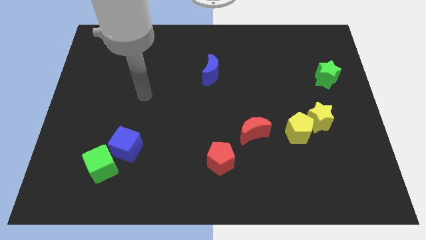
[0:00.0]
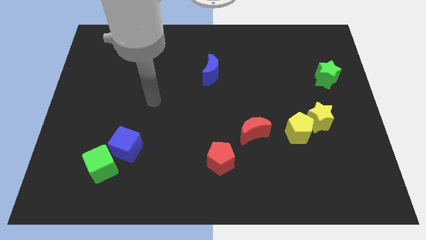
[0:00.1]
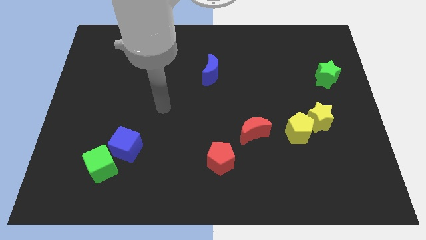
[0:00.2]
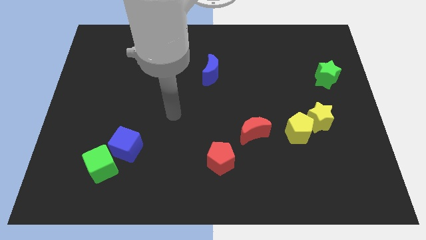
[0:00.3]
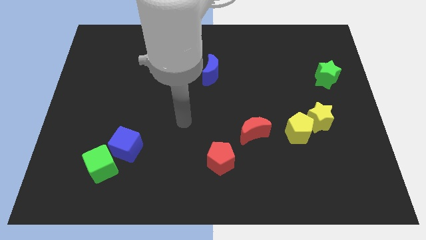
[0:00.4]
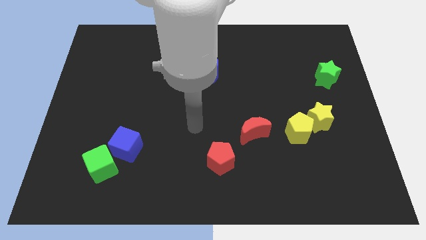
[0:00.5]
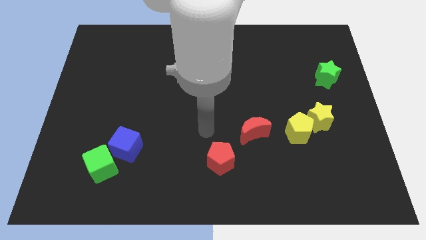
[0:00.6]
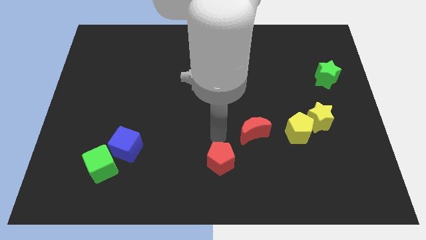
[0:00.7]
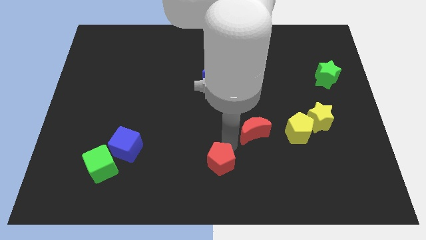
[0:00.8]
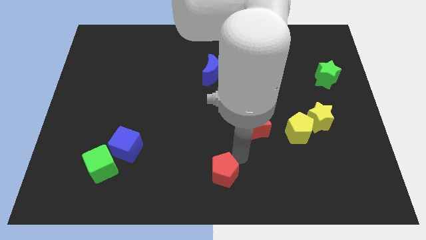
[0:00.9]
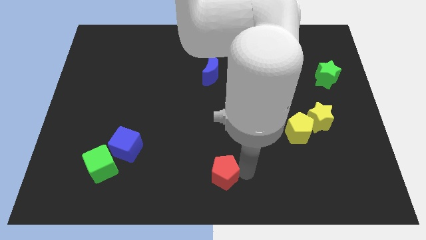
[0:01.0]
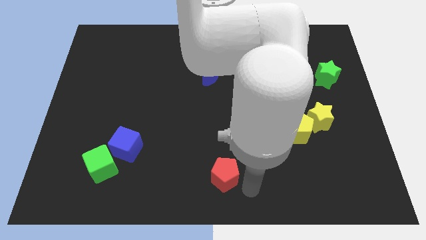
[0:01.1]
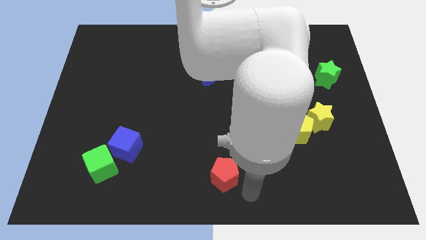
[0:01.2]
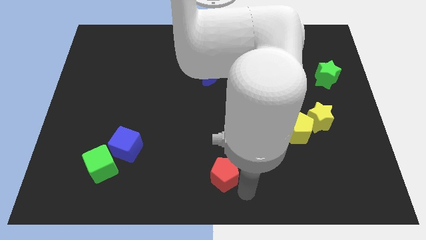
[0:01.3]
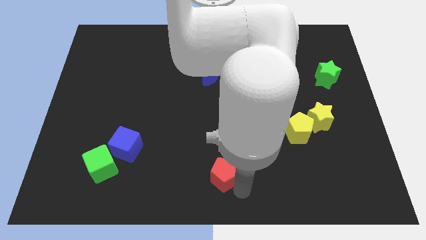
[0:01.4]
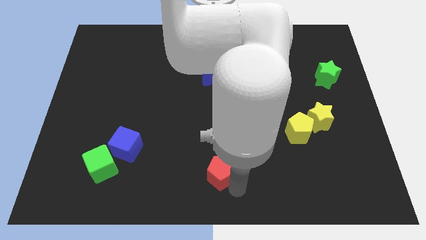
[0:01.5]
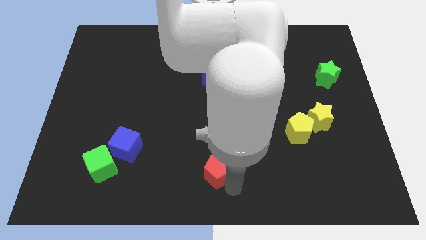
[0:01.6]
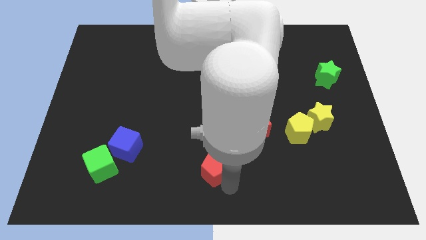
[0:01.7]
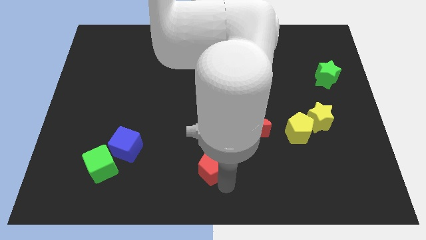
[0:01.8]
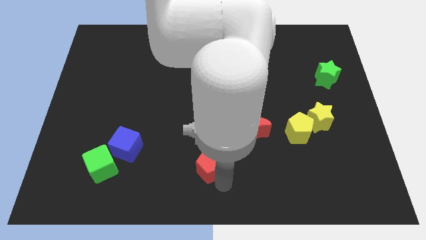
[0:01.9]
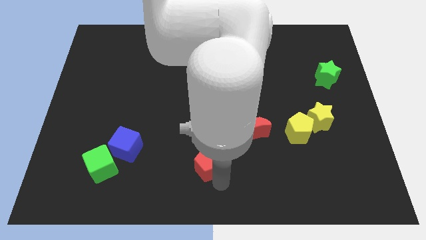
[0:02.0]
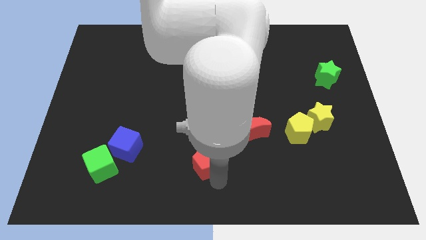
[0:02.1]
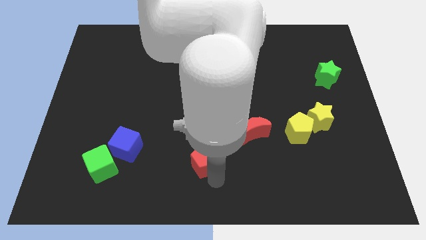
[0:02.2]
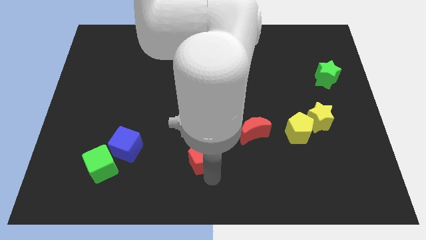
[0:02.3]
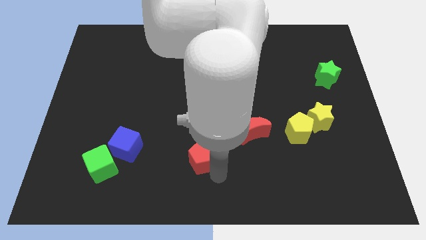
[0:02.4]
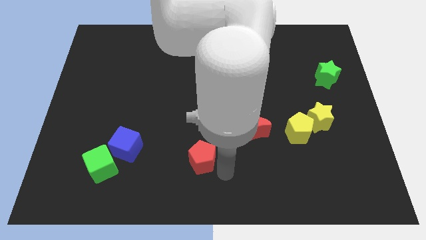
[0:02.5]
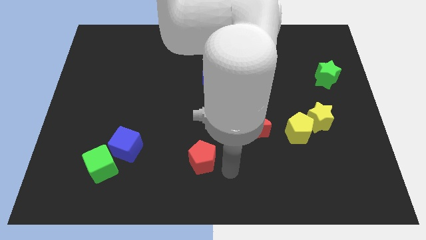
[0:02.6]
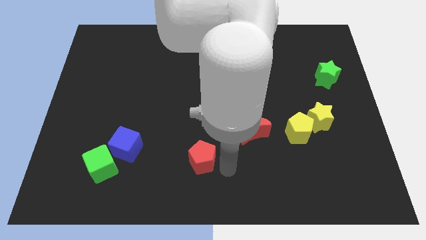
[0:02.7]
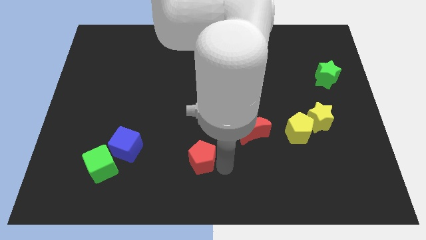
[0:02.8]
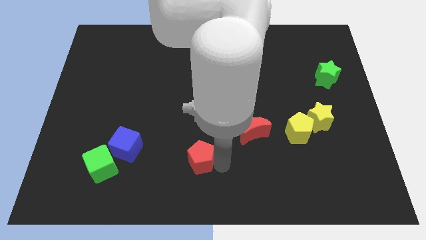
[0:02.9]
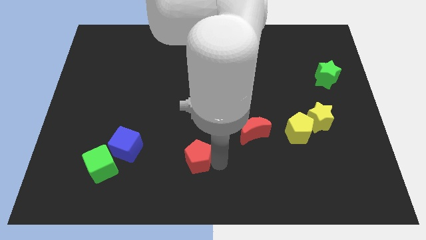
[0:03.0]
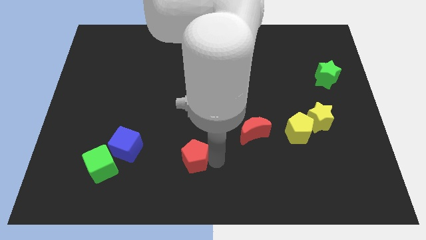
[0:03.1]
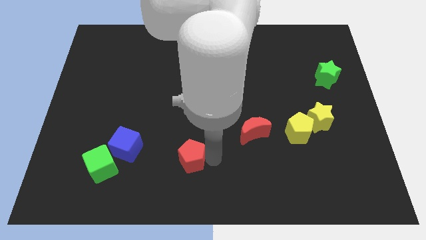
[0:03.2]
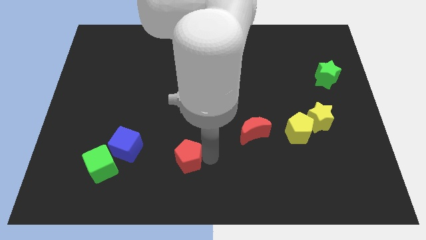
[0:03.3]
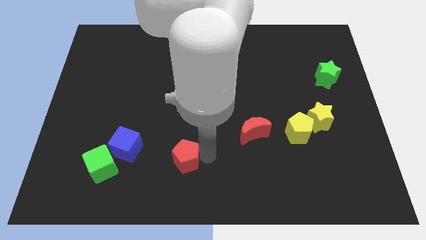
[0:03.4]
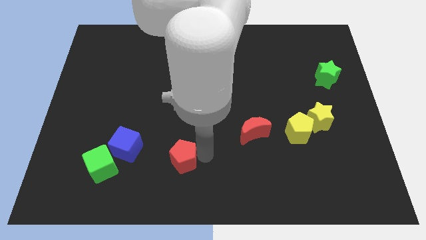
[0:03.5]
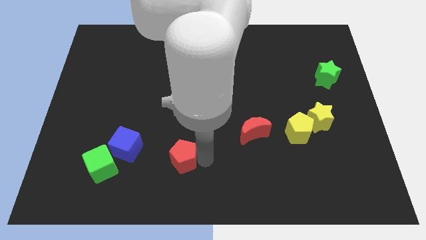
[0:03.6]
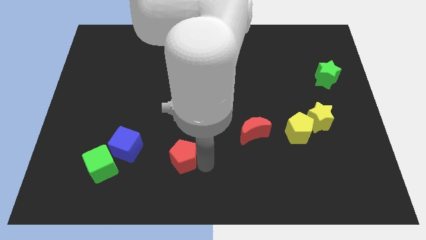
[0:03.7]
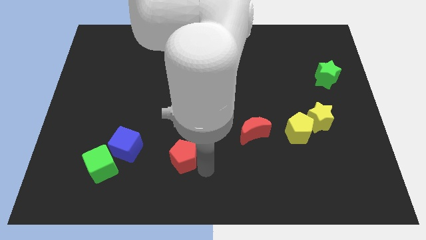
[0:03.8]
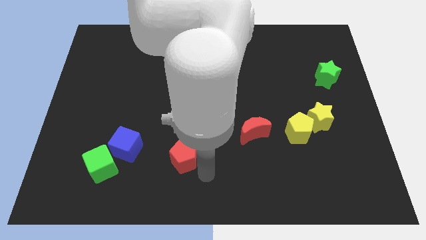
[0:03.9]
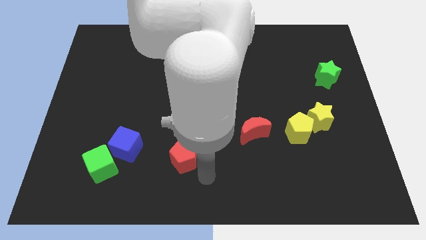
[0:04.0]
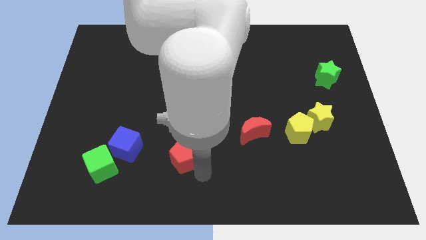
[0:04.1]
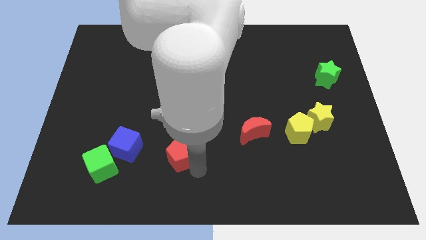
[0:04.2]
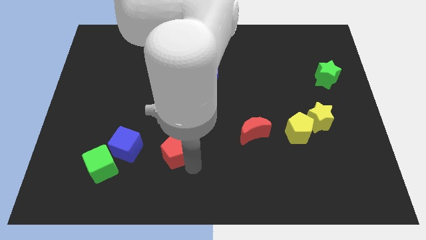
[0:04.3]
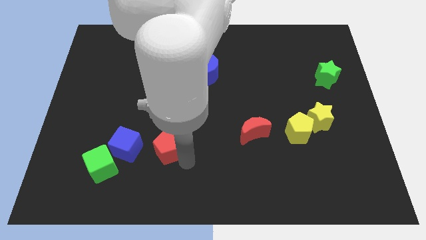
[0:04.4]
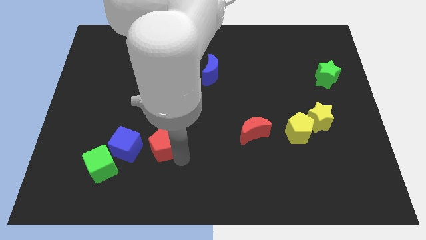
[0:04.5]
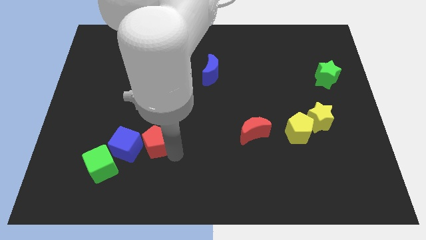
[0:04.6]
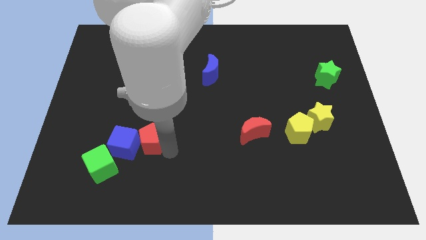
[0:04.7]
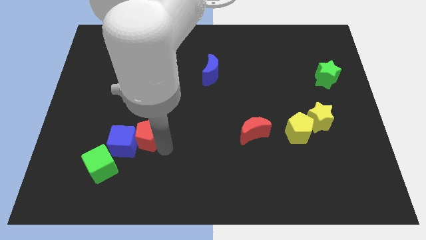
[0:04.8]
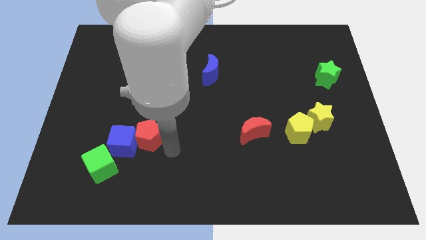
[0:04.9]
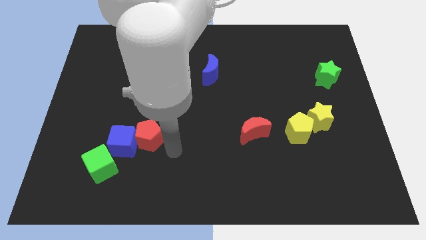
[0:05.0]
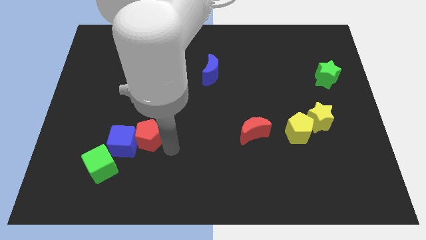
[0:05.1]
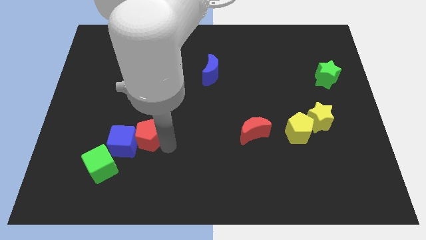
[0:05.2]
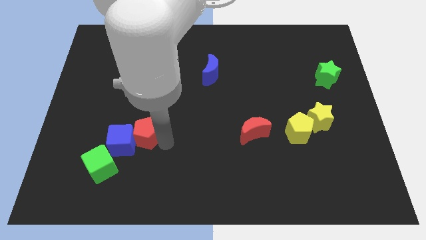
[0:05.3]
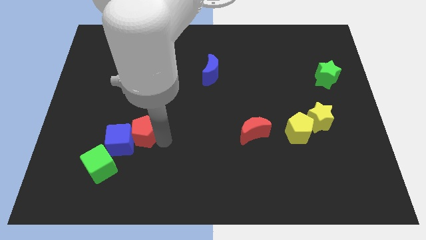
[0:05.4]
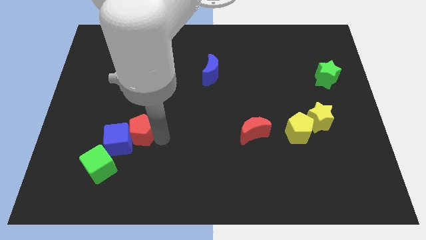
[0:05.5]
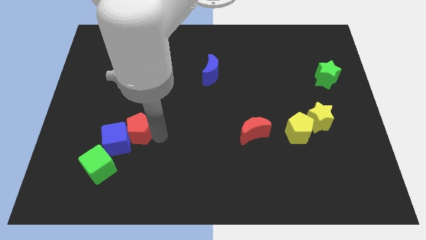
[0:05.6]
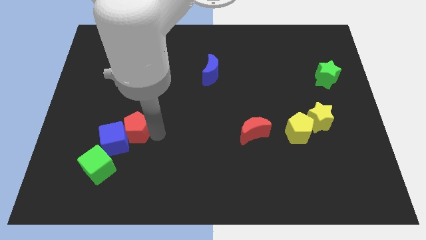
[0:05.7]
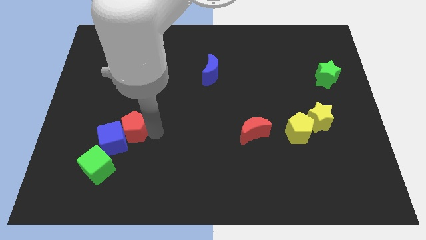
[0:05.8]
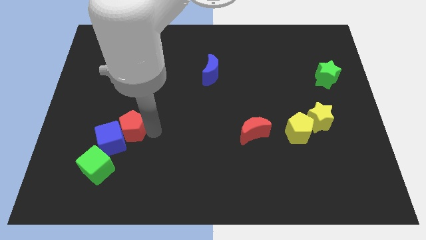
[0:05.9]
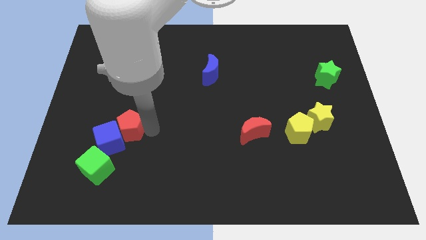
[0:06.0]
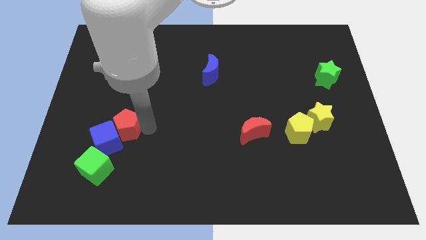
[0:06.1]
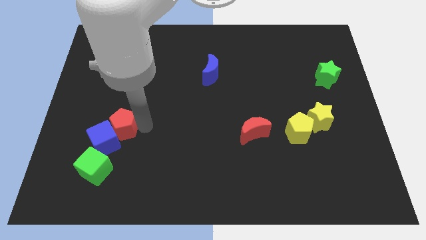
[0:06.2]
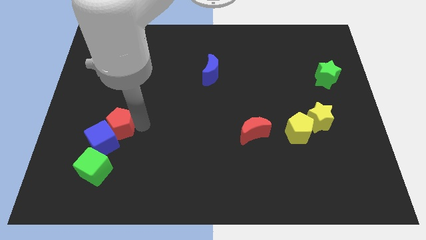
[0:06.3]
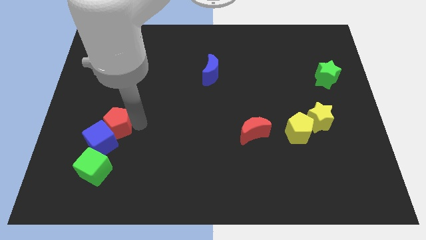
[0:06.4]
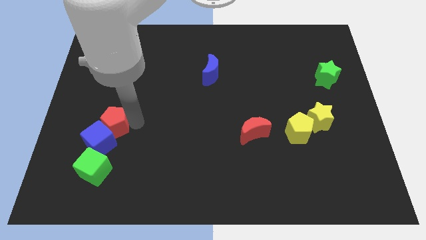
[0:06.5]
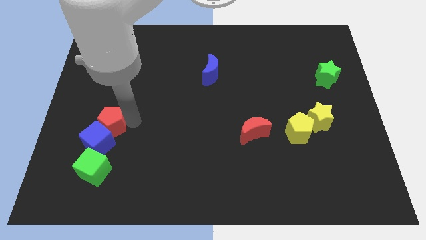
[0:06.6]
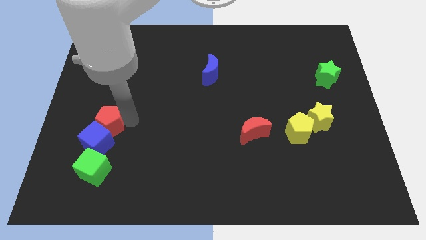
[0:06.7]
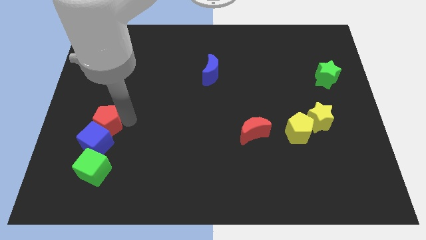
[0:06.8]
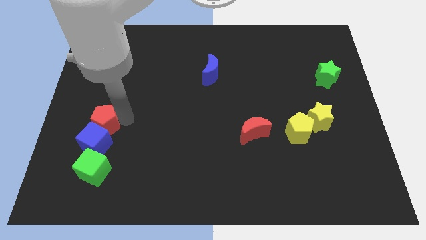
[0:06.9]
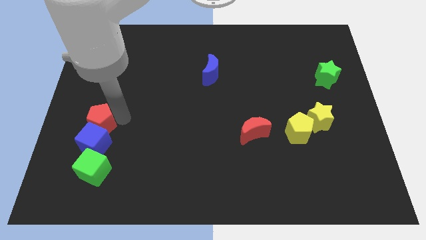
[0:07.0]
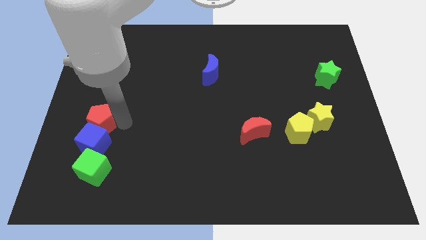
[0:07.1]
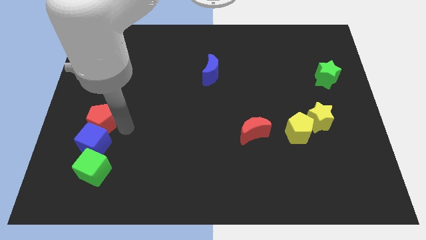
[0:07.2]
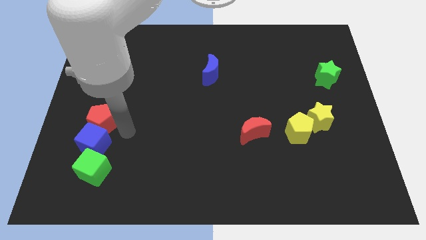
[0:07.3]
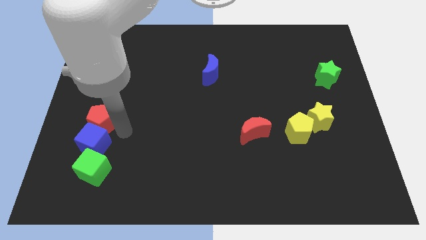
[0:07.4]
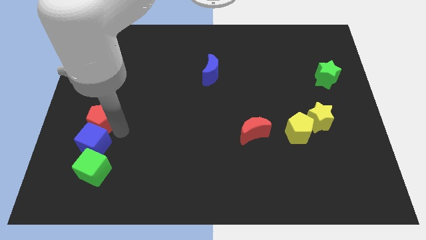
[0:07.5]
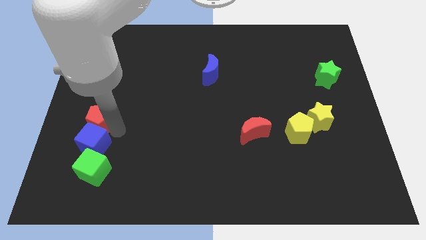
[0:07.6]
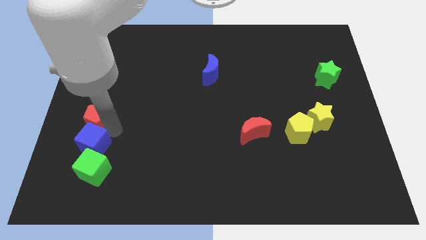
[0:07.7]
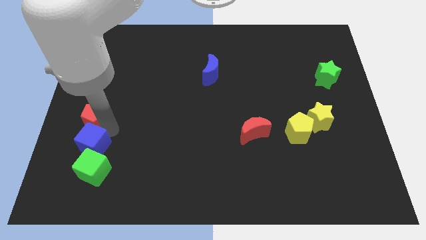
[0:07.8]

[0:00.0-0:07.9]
put the red pentagon to the left side
